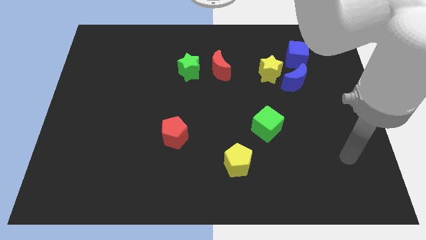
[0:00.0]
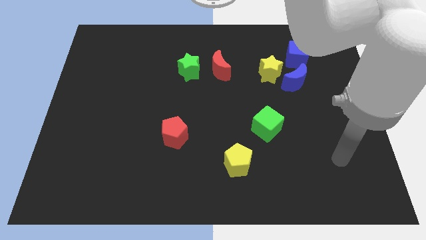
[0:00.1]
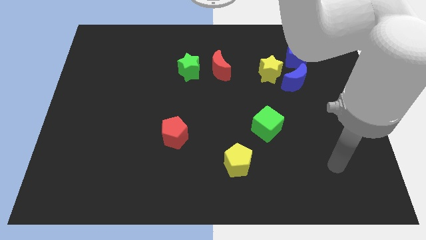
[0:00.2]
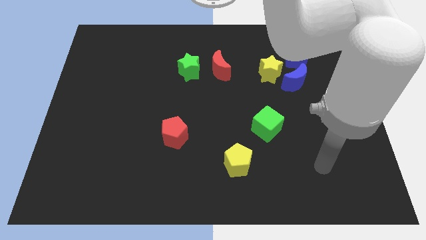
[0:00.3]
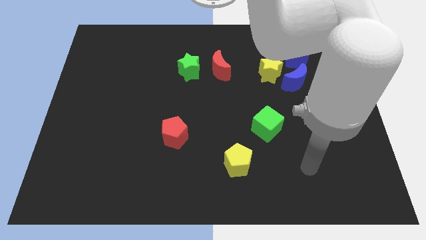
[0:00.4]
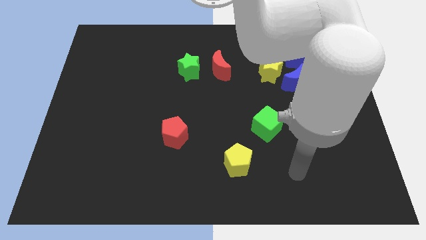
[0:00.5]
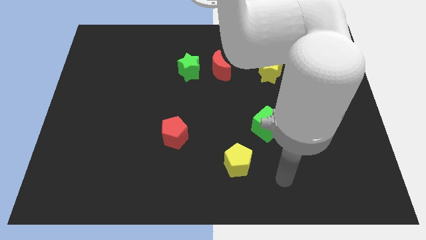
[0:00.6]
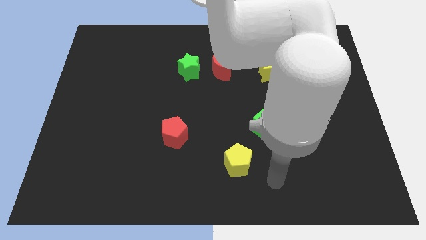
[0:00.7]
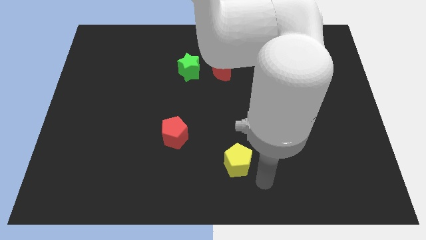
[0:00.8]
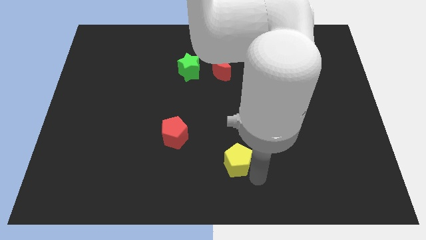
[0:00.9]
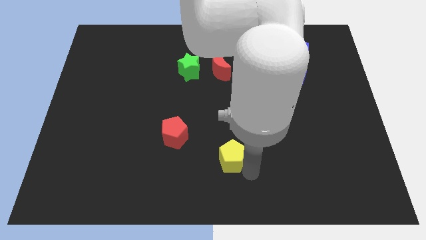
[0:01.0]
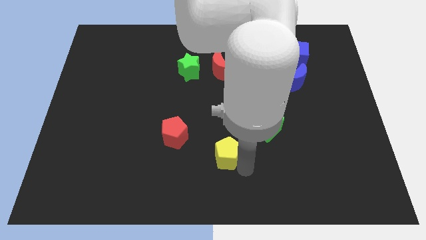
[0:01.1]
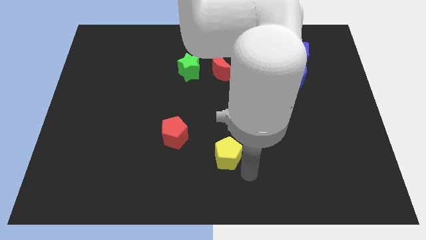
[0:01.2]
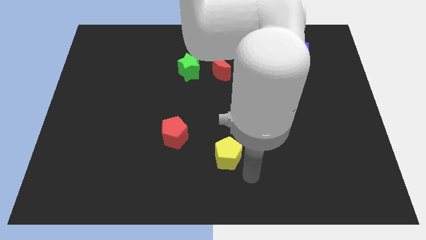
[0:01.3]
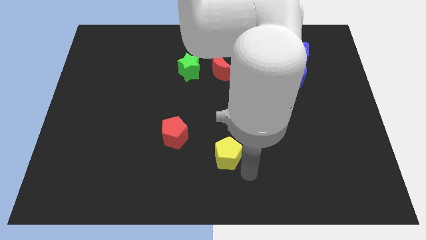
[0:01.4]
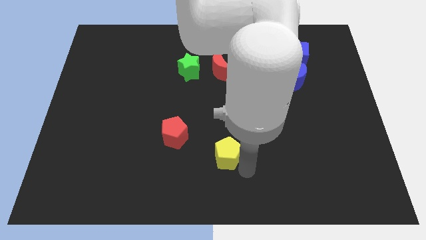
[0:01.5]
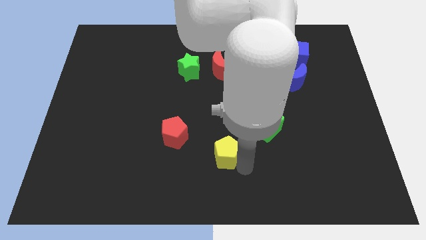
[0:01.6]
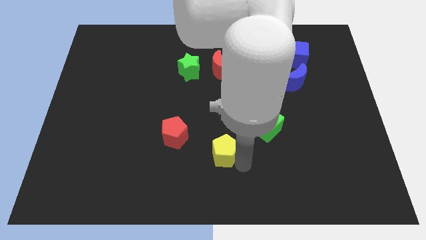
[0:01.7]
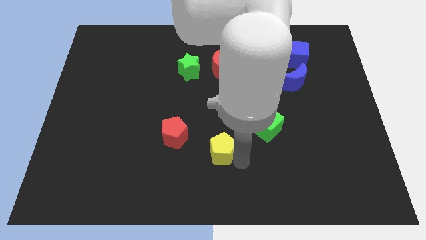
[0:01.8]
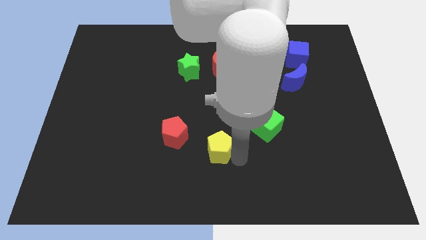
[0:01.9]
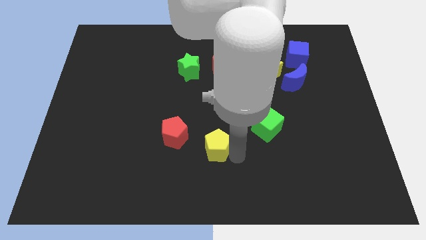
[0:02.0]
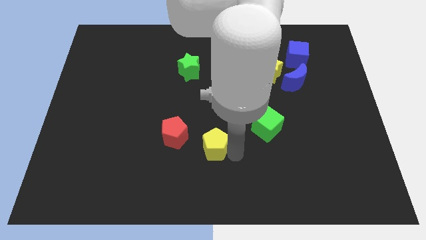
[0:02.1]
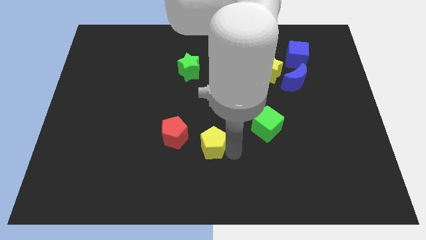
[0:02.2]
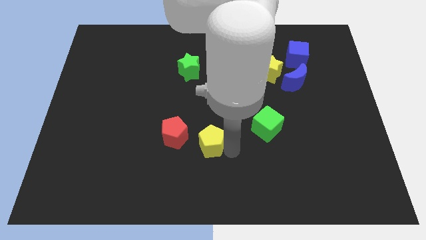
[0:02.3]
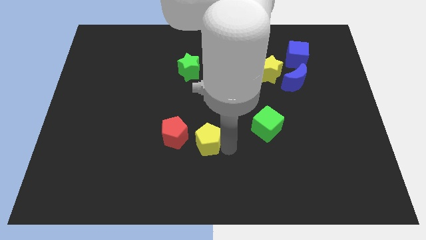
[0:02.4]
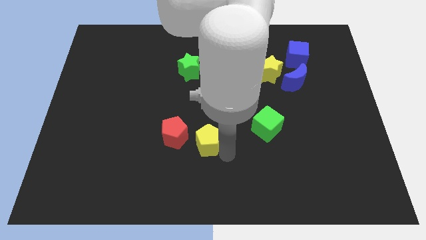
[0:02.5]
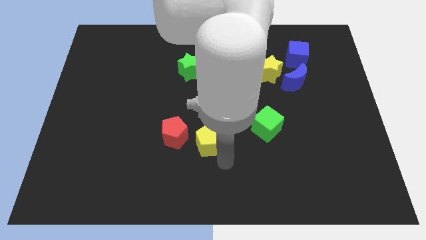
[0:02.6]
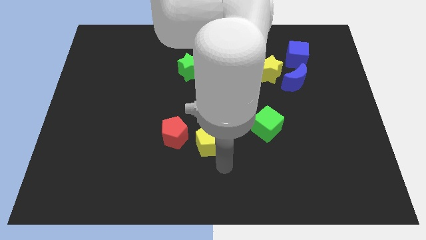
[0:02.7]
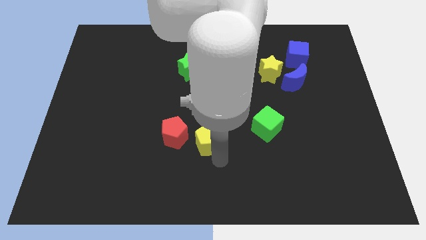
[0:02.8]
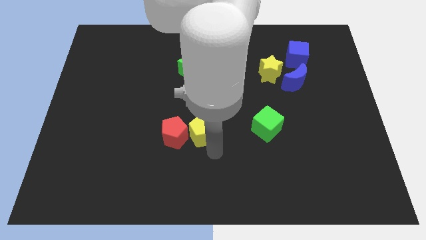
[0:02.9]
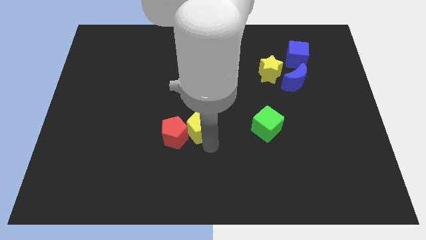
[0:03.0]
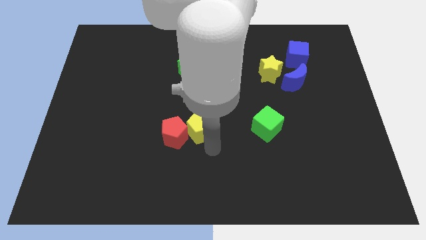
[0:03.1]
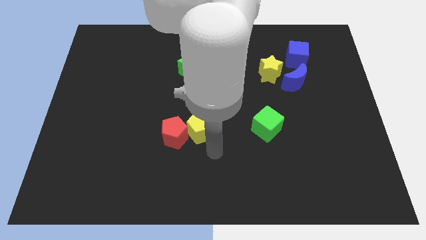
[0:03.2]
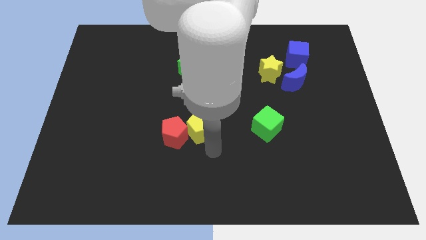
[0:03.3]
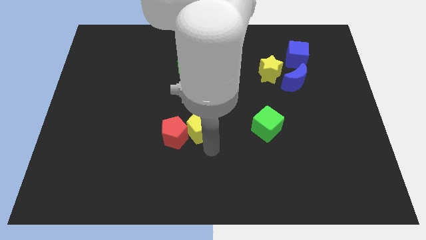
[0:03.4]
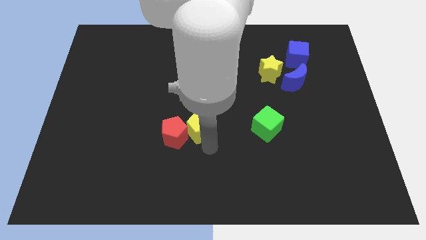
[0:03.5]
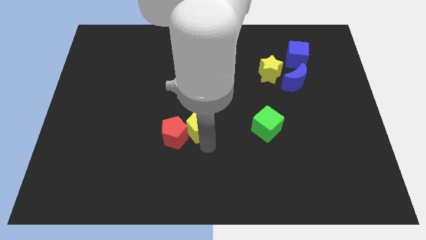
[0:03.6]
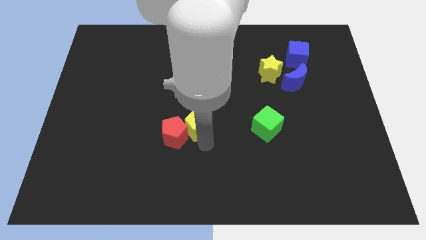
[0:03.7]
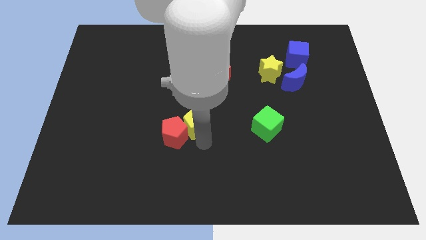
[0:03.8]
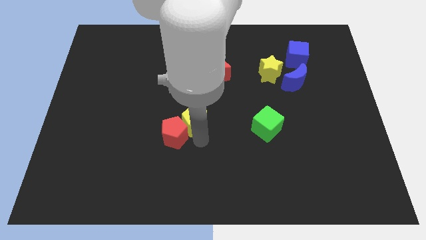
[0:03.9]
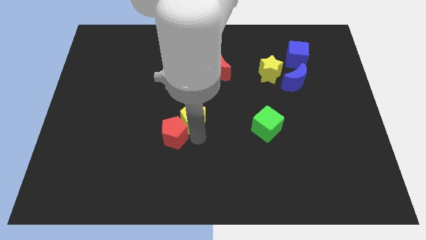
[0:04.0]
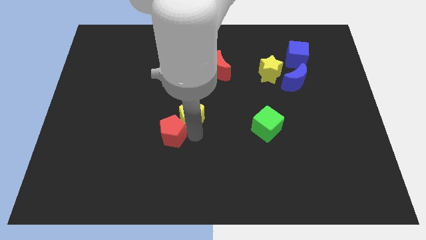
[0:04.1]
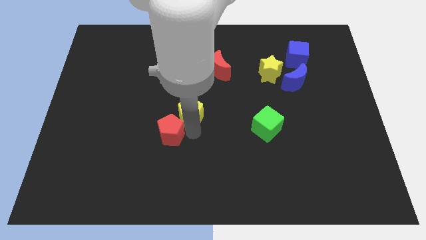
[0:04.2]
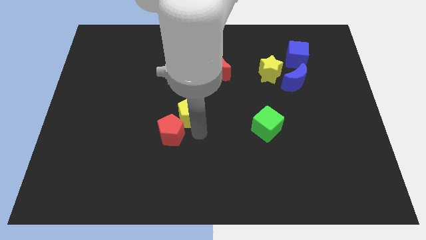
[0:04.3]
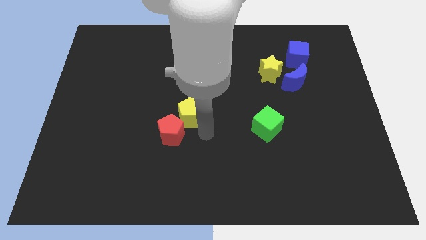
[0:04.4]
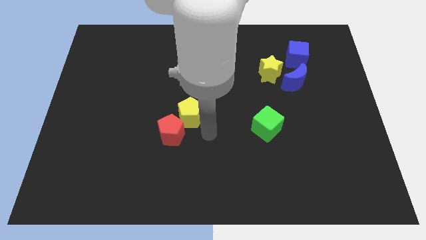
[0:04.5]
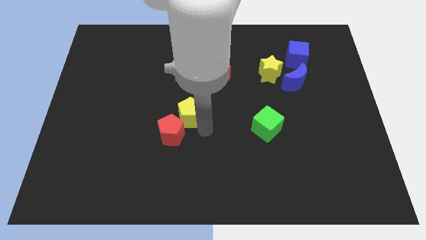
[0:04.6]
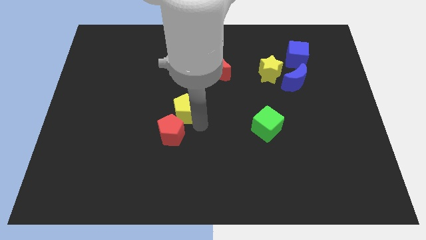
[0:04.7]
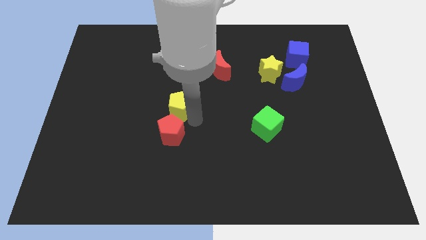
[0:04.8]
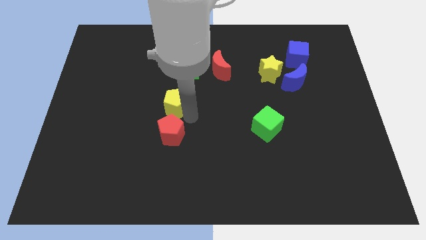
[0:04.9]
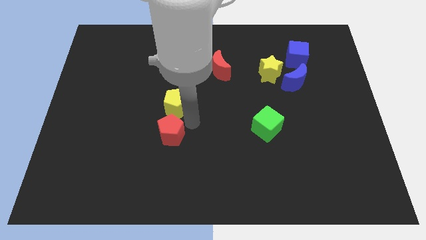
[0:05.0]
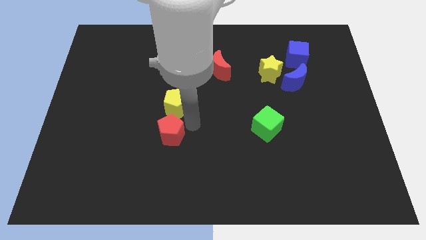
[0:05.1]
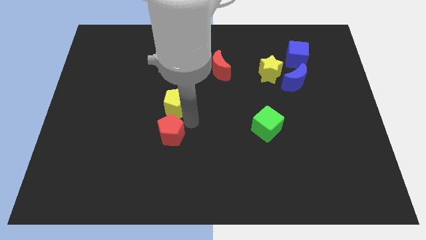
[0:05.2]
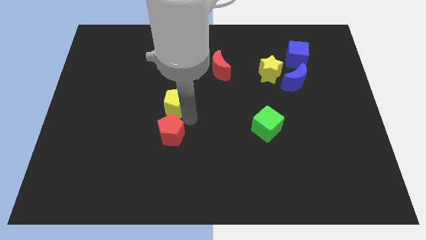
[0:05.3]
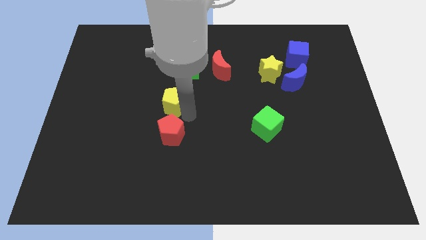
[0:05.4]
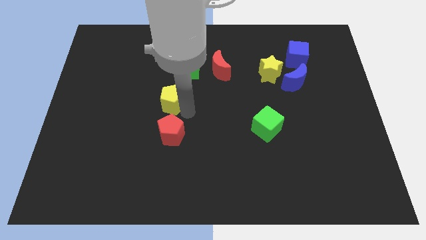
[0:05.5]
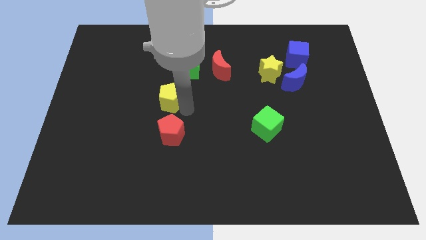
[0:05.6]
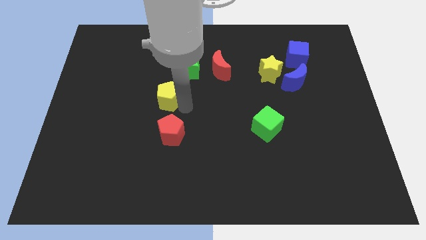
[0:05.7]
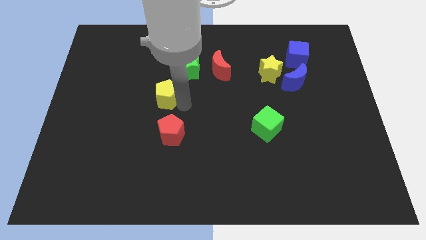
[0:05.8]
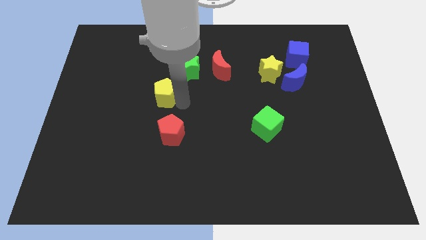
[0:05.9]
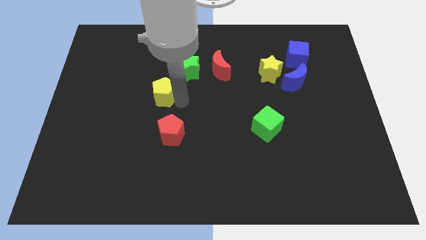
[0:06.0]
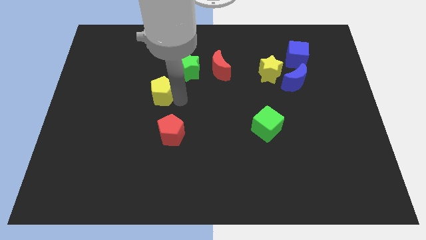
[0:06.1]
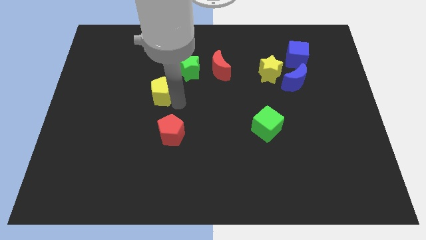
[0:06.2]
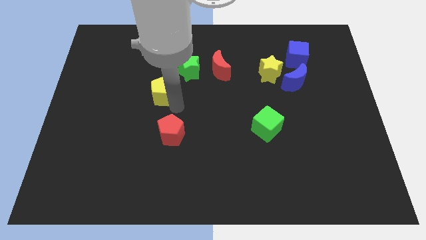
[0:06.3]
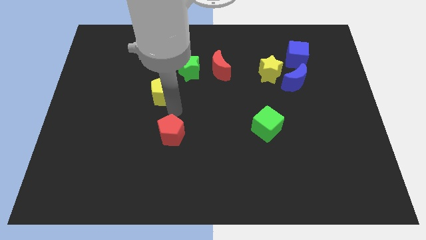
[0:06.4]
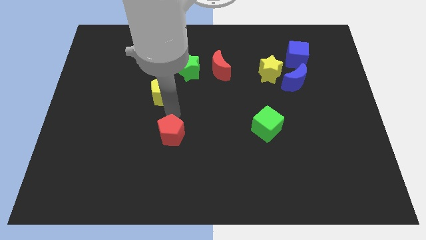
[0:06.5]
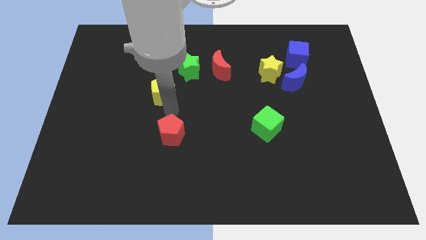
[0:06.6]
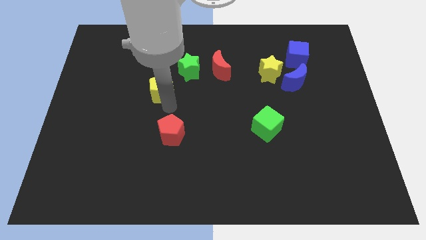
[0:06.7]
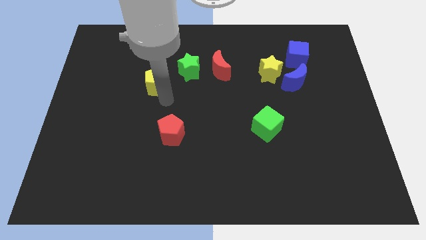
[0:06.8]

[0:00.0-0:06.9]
put the yellow pentagon to the left of the green star
